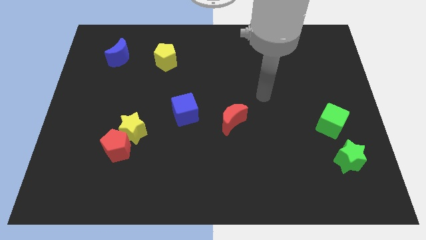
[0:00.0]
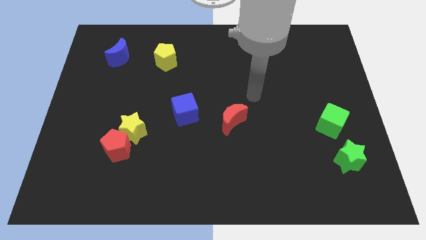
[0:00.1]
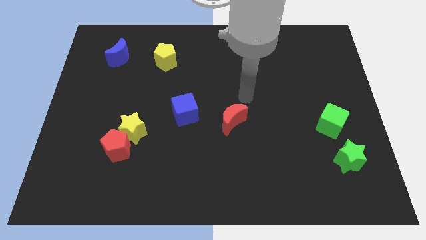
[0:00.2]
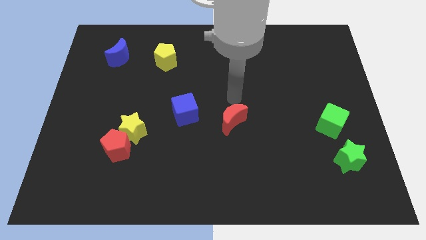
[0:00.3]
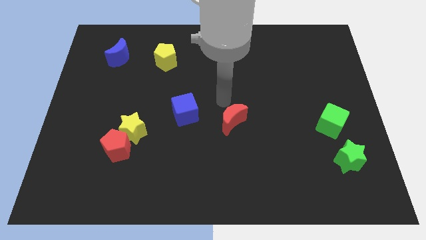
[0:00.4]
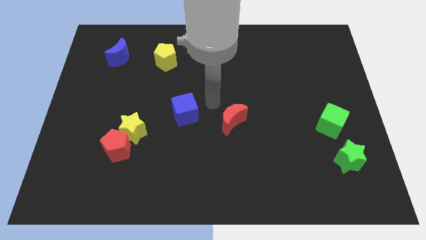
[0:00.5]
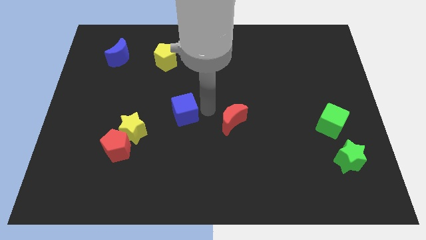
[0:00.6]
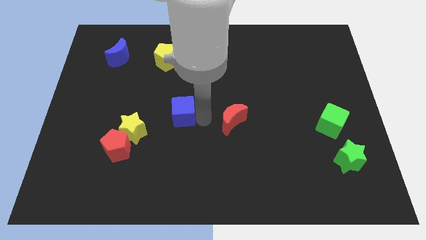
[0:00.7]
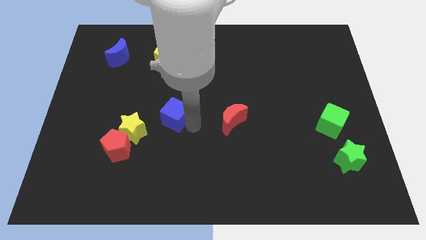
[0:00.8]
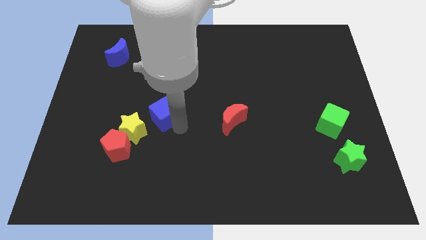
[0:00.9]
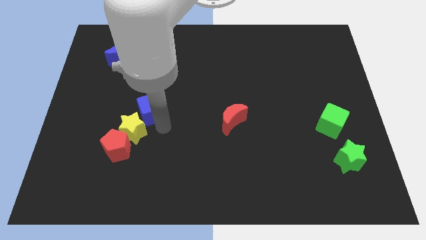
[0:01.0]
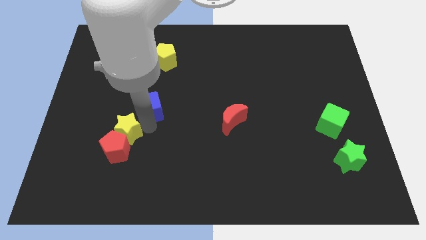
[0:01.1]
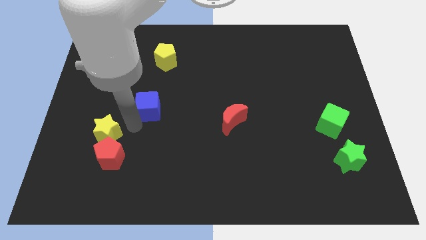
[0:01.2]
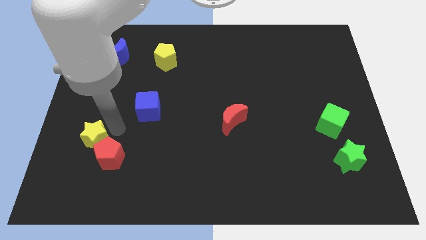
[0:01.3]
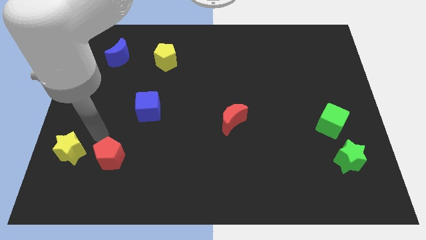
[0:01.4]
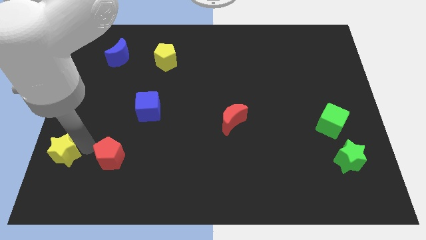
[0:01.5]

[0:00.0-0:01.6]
separate the red pentagon from the yellow star

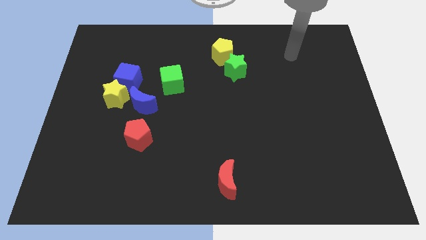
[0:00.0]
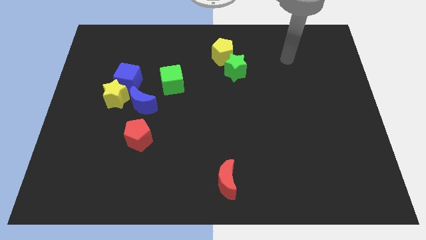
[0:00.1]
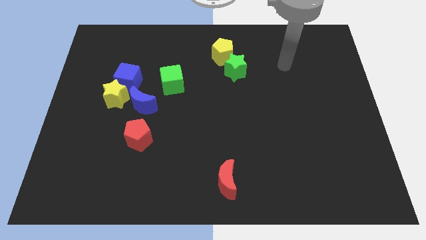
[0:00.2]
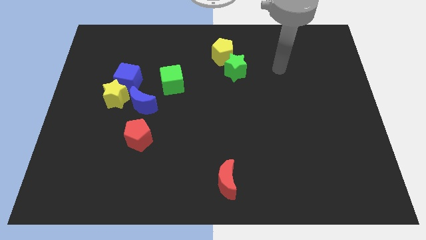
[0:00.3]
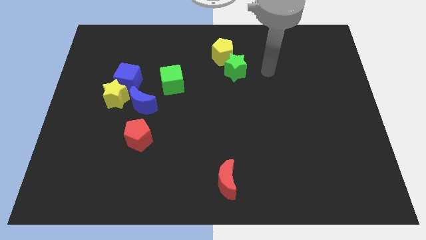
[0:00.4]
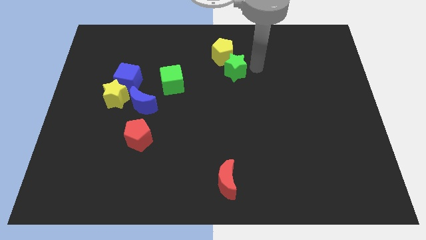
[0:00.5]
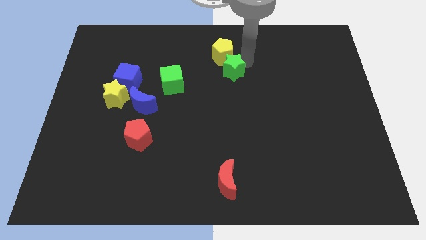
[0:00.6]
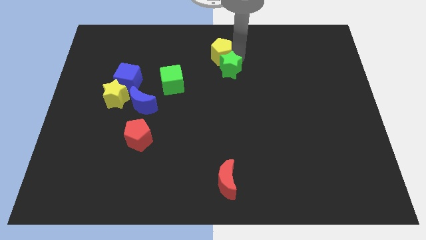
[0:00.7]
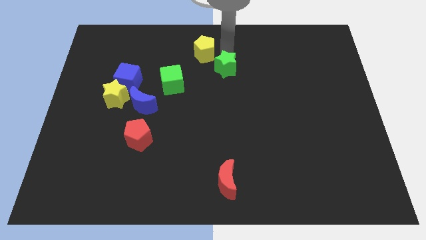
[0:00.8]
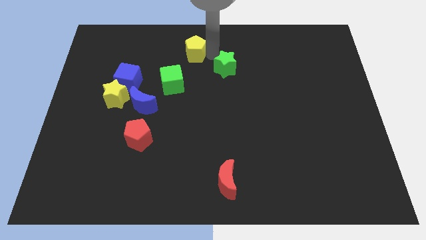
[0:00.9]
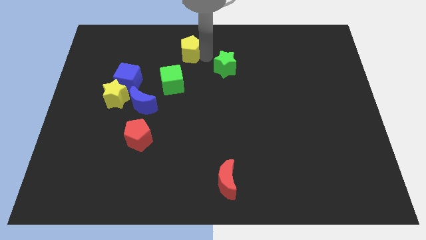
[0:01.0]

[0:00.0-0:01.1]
pull the green star apart from the yellow pentagon

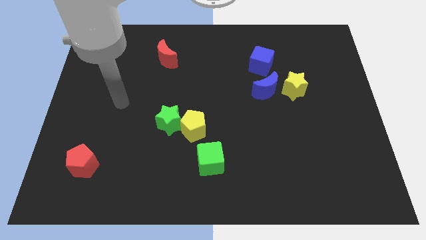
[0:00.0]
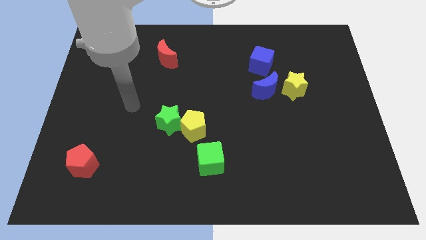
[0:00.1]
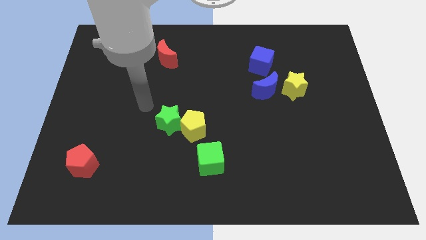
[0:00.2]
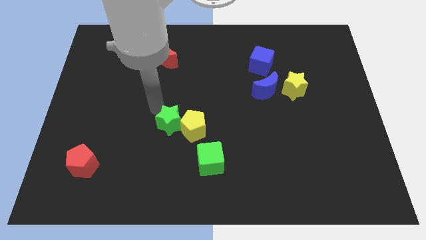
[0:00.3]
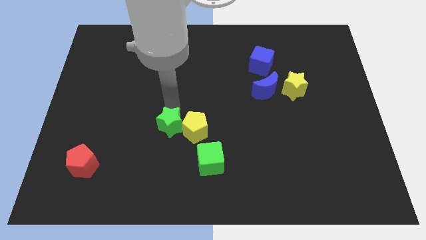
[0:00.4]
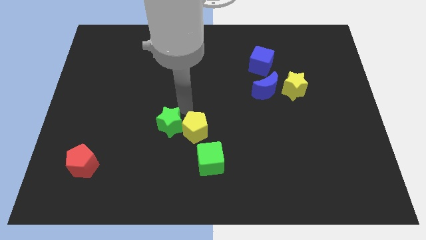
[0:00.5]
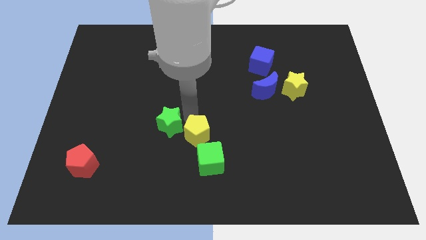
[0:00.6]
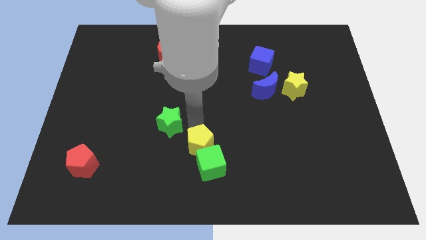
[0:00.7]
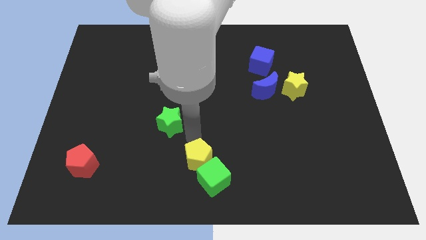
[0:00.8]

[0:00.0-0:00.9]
separate the green star from the yellow pentagon

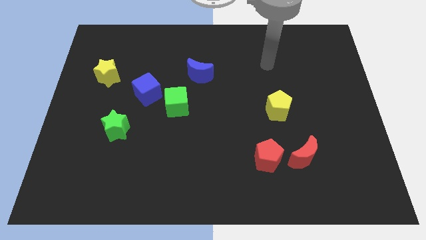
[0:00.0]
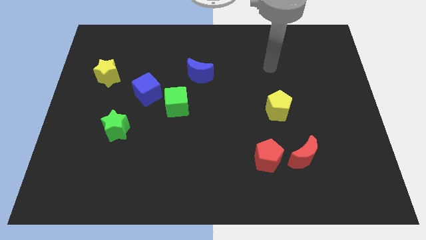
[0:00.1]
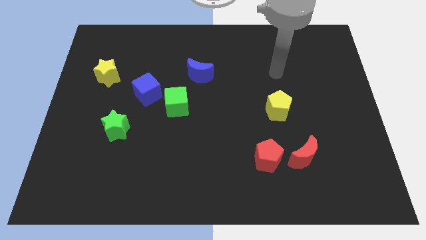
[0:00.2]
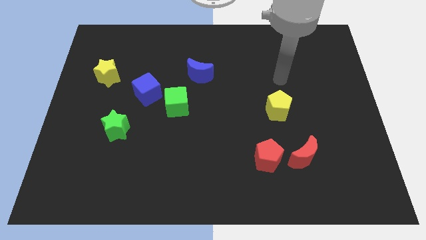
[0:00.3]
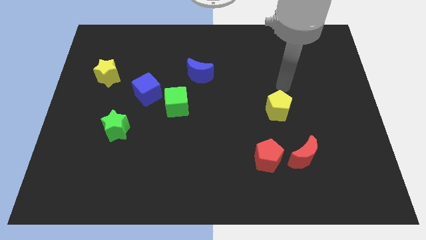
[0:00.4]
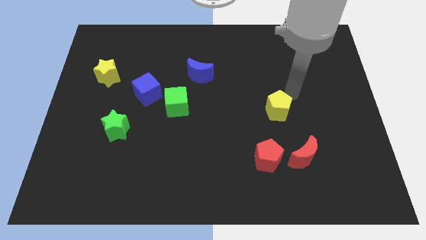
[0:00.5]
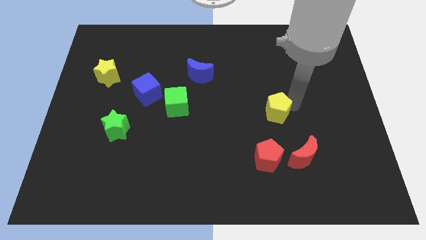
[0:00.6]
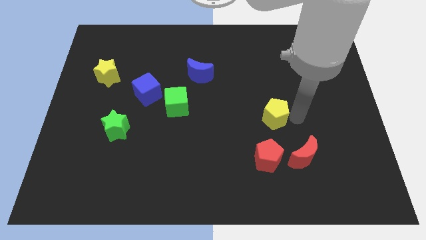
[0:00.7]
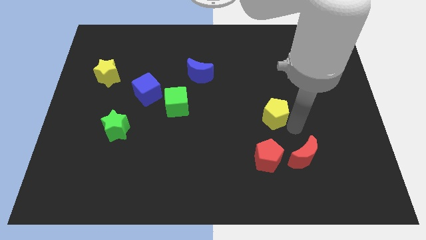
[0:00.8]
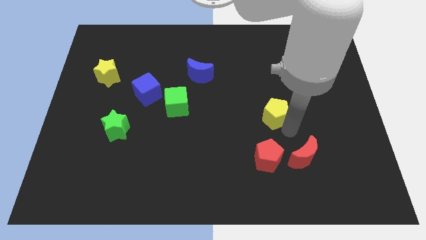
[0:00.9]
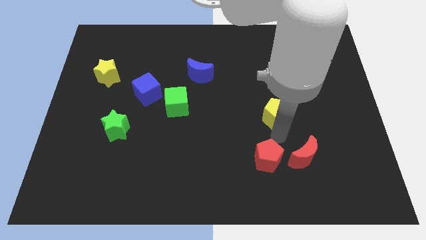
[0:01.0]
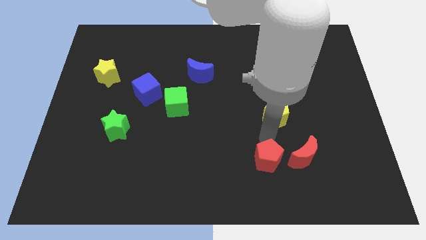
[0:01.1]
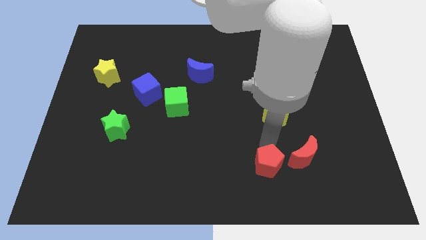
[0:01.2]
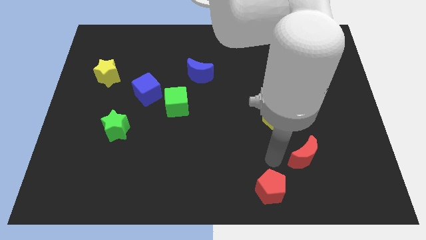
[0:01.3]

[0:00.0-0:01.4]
separate the red moon from the red pentagon

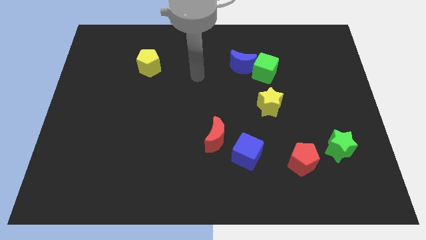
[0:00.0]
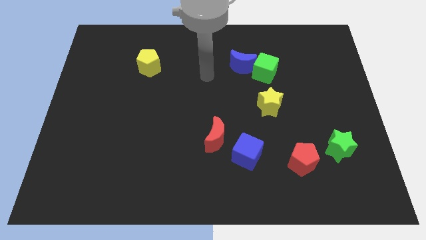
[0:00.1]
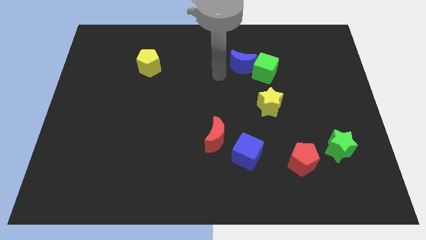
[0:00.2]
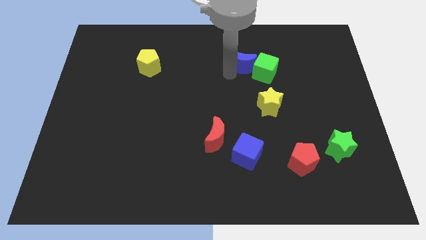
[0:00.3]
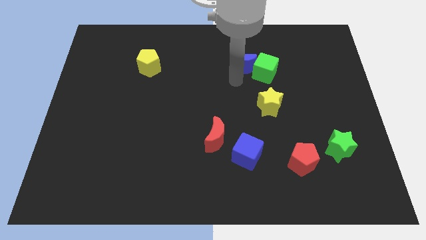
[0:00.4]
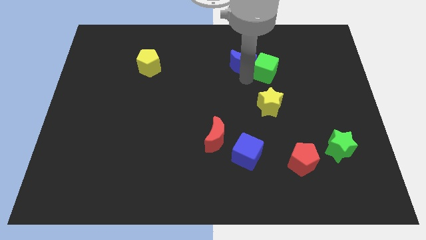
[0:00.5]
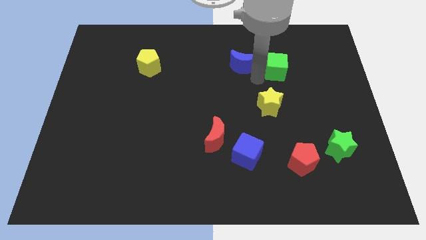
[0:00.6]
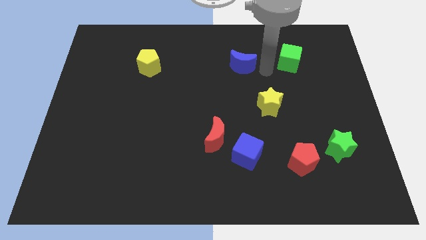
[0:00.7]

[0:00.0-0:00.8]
move the blue moon away from the green cube

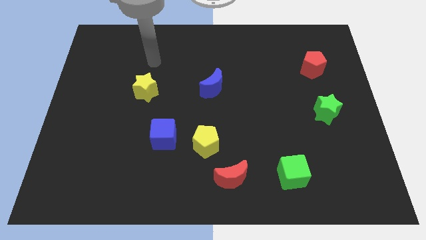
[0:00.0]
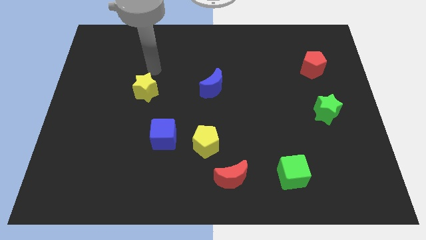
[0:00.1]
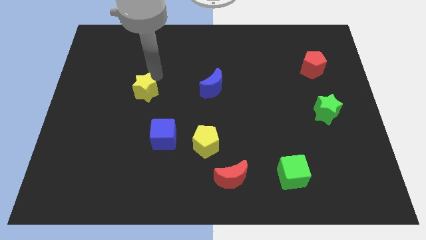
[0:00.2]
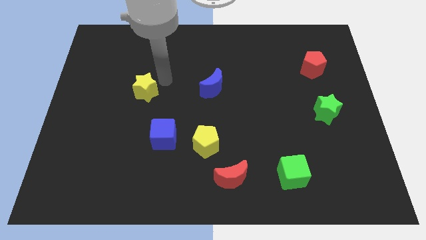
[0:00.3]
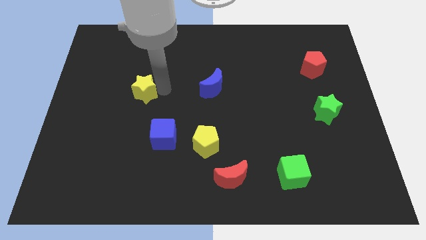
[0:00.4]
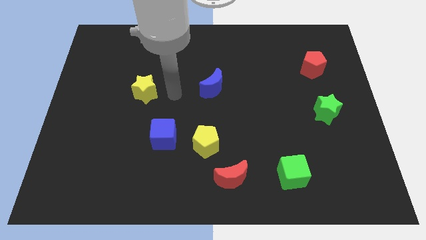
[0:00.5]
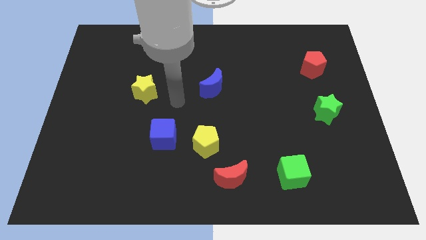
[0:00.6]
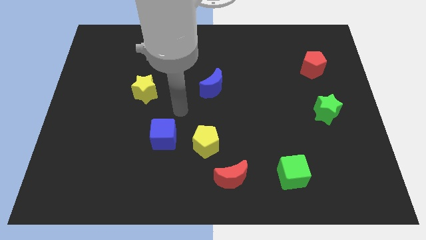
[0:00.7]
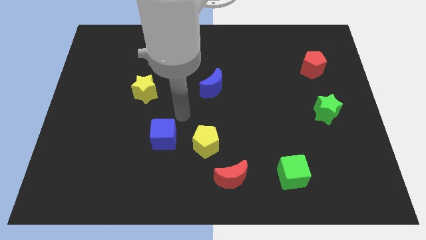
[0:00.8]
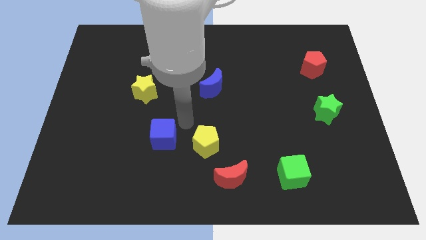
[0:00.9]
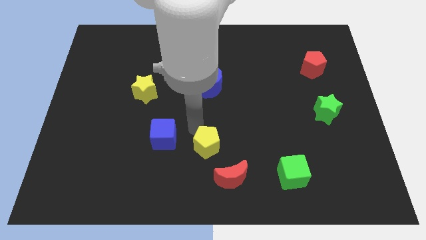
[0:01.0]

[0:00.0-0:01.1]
move the blue cube away from the yellow pentagon

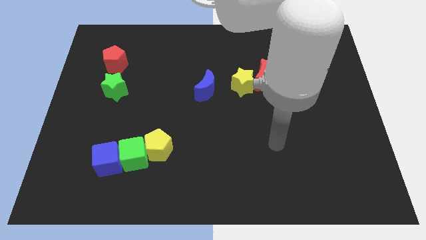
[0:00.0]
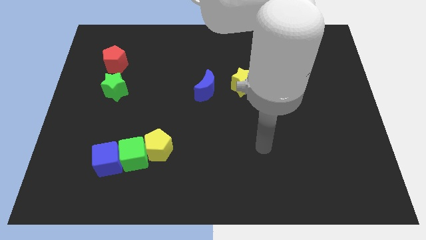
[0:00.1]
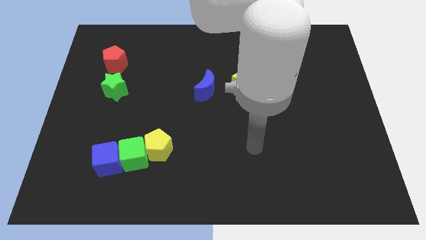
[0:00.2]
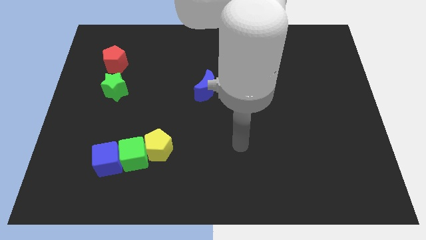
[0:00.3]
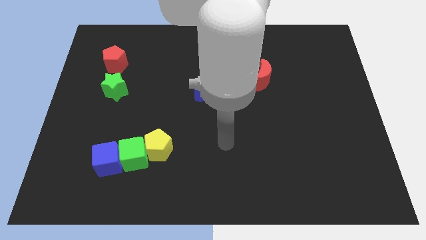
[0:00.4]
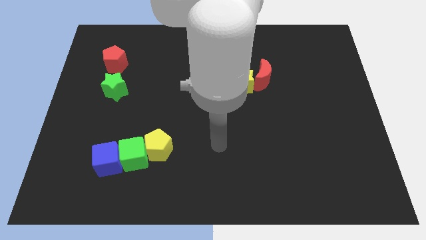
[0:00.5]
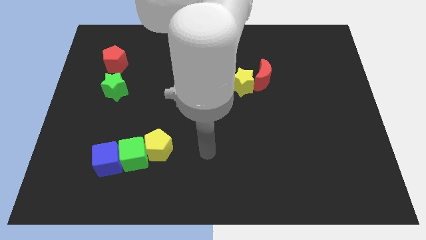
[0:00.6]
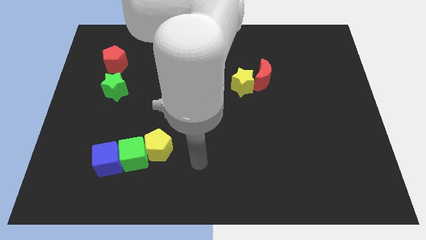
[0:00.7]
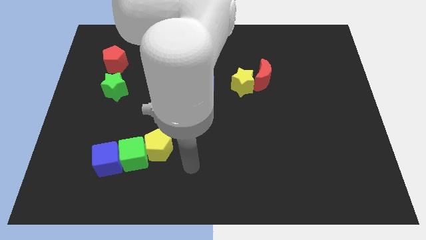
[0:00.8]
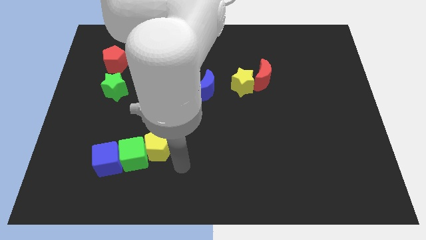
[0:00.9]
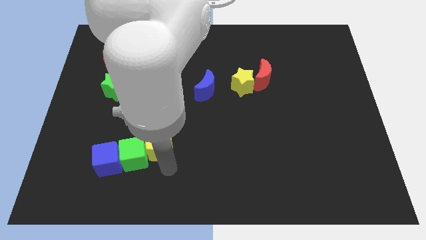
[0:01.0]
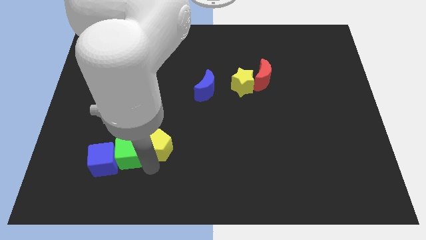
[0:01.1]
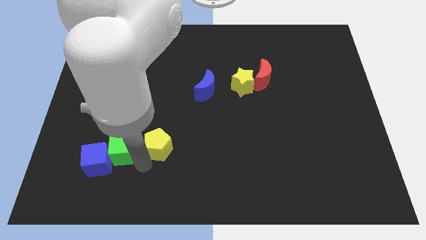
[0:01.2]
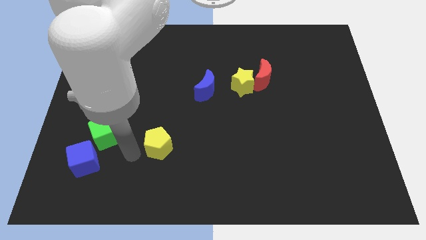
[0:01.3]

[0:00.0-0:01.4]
move the yellow pentagon away from the green cube

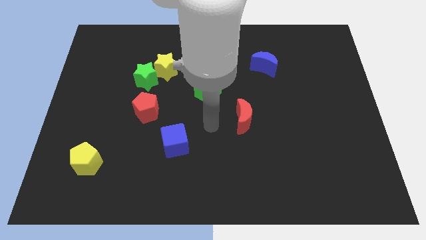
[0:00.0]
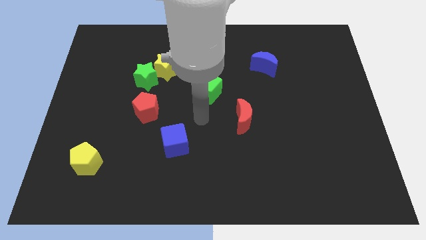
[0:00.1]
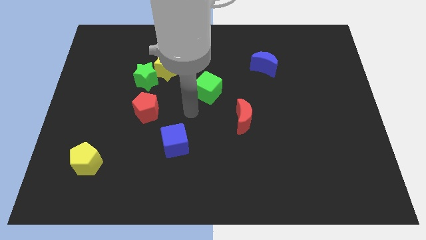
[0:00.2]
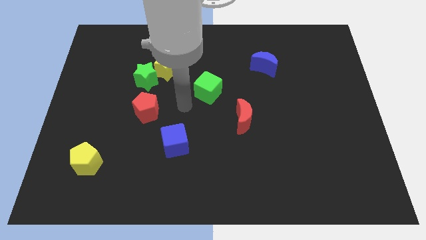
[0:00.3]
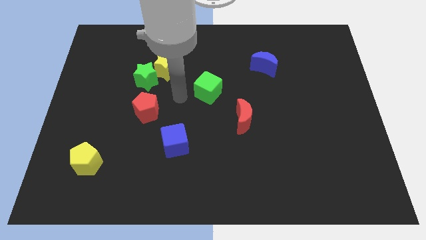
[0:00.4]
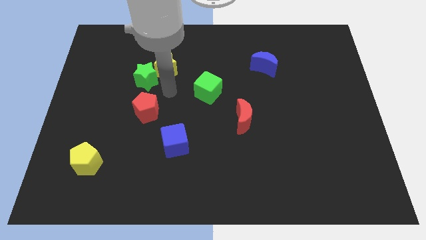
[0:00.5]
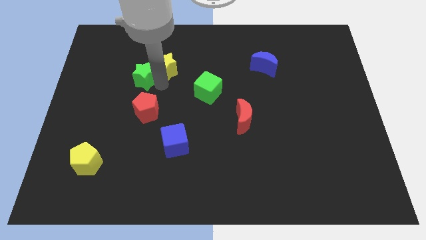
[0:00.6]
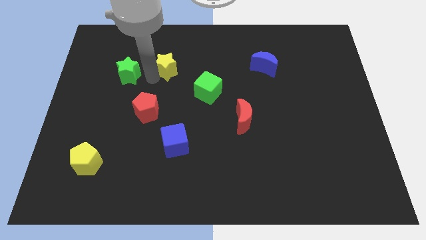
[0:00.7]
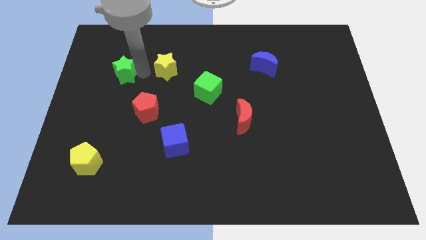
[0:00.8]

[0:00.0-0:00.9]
move the yellow star away from the green star

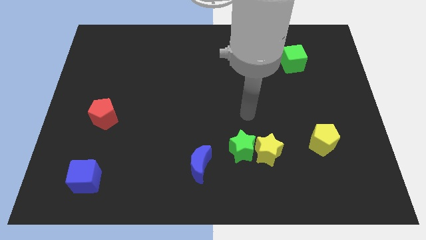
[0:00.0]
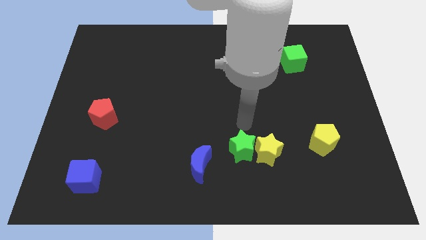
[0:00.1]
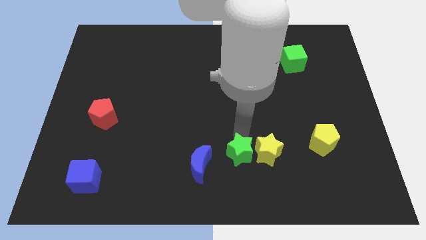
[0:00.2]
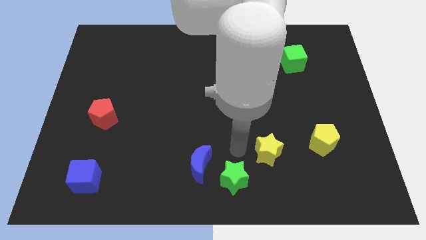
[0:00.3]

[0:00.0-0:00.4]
pull the yellow star apart from the green star
